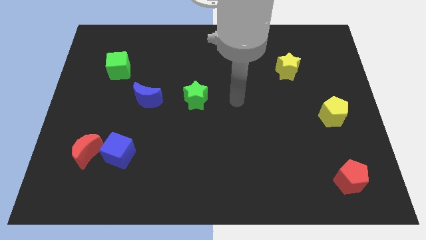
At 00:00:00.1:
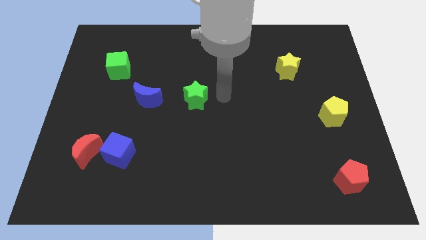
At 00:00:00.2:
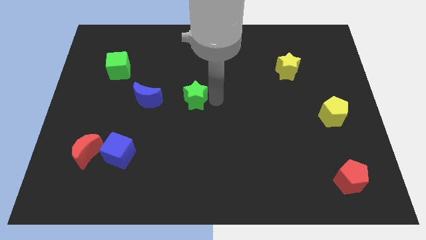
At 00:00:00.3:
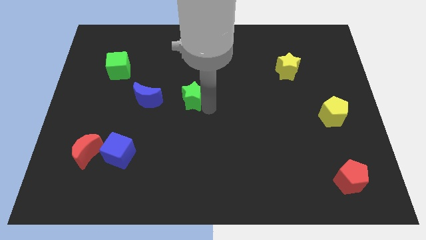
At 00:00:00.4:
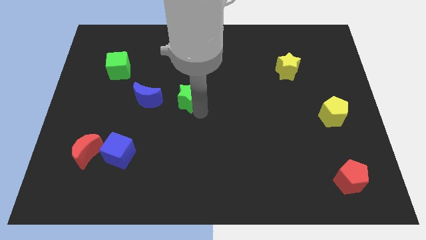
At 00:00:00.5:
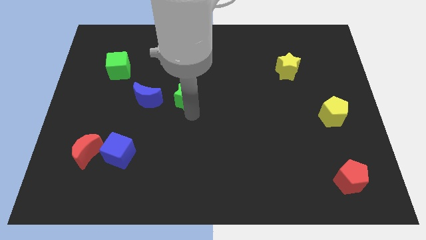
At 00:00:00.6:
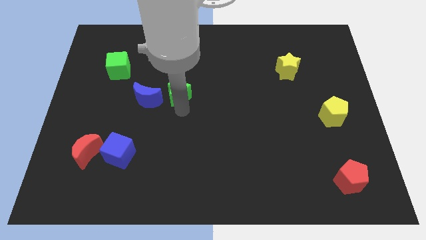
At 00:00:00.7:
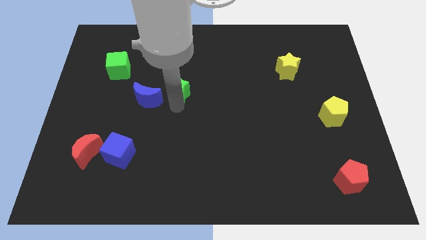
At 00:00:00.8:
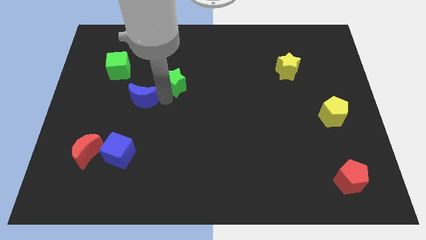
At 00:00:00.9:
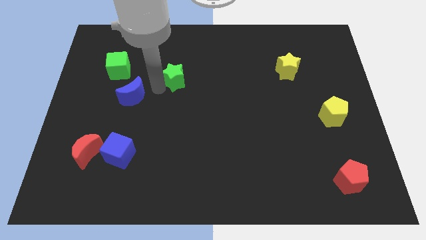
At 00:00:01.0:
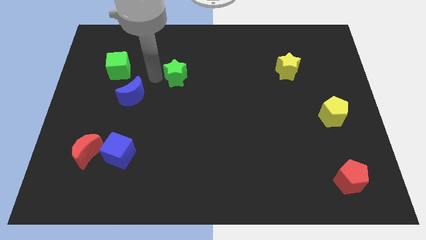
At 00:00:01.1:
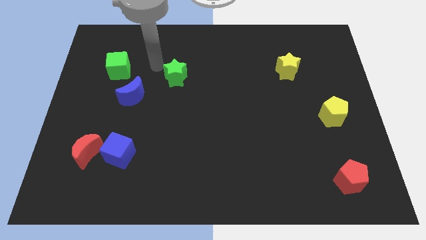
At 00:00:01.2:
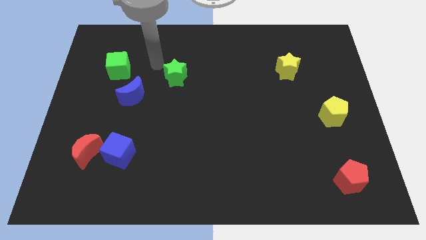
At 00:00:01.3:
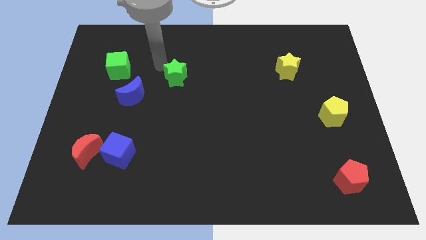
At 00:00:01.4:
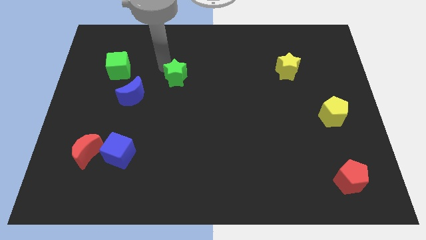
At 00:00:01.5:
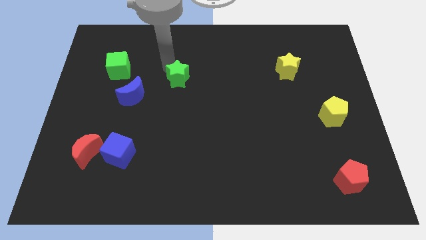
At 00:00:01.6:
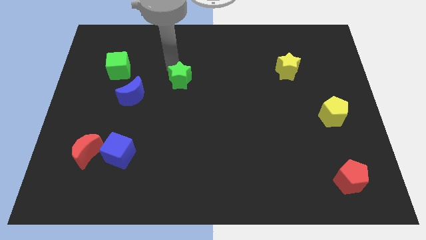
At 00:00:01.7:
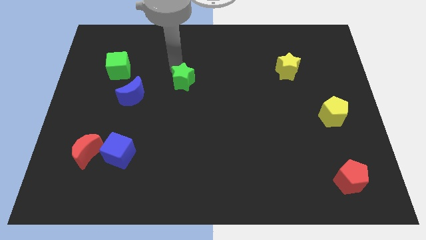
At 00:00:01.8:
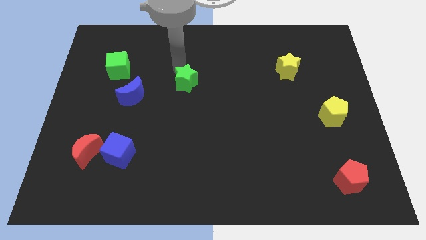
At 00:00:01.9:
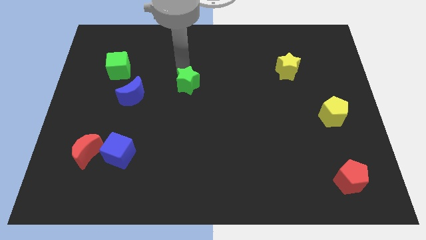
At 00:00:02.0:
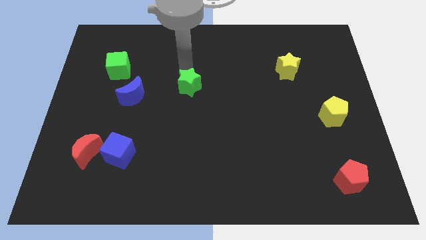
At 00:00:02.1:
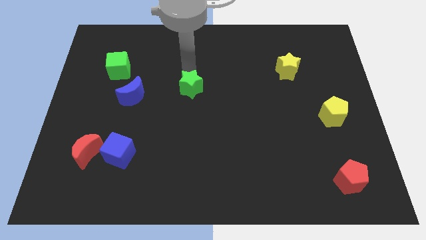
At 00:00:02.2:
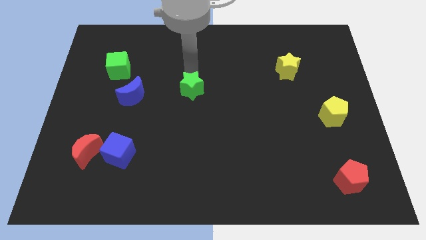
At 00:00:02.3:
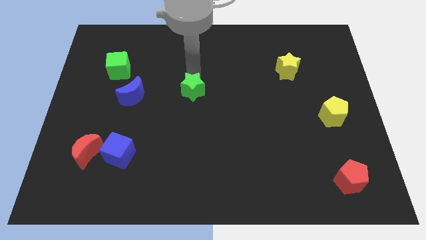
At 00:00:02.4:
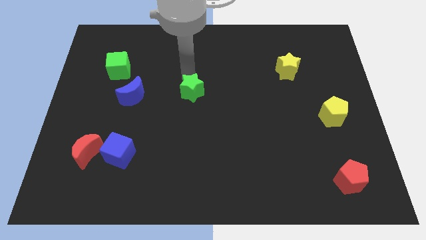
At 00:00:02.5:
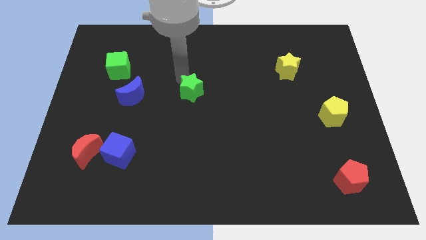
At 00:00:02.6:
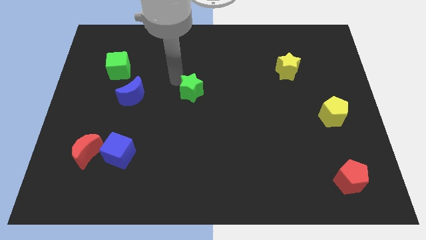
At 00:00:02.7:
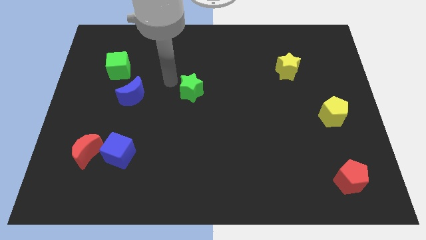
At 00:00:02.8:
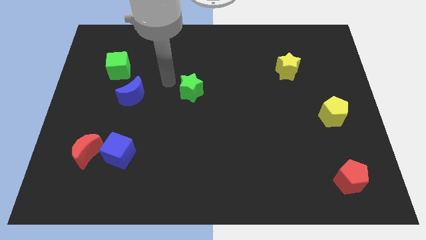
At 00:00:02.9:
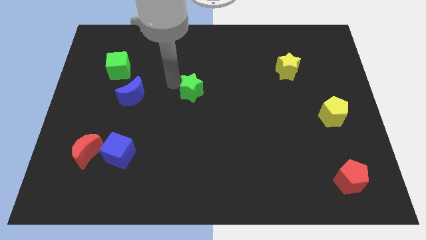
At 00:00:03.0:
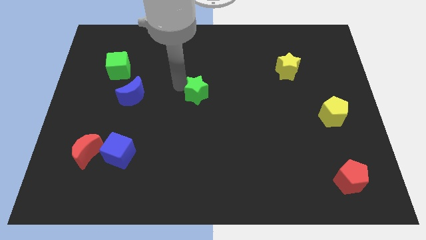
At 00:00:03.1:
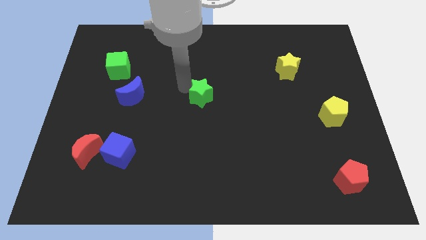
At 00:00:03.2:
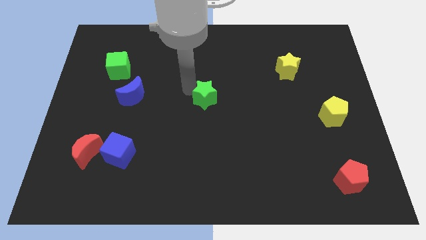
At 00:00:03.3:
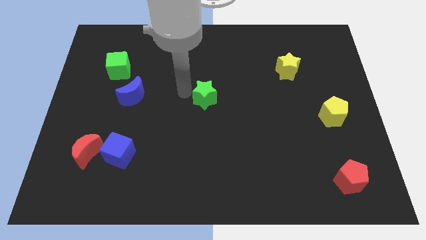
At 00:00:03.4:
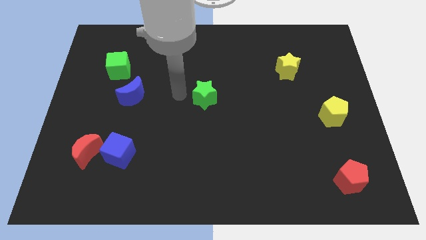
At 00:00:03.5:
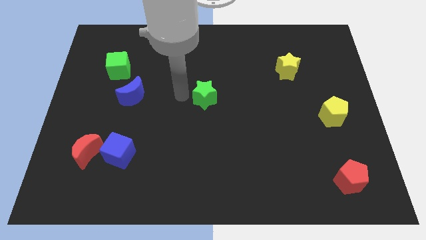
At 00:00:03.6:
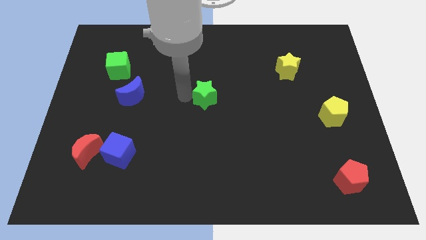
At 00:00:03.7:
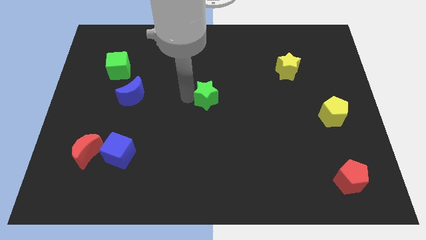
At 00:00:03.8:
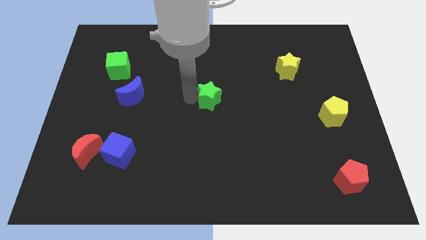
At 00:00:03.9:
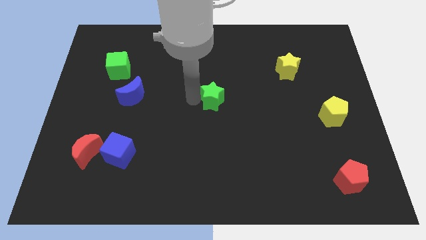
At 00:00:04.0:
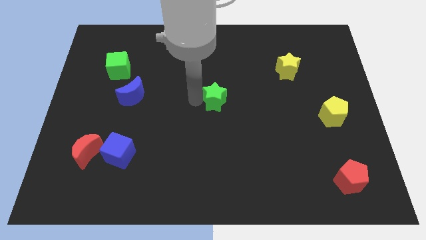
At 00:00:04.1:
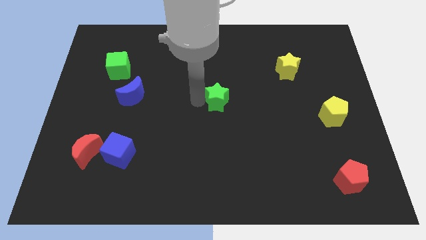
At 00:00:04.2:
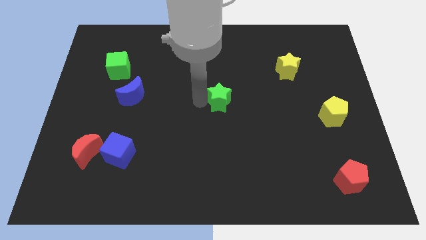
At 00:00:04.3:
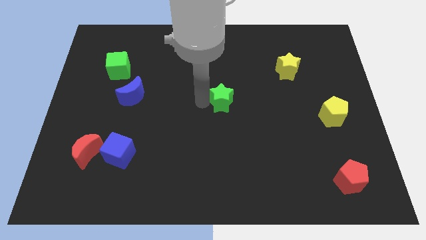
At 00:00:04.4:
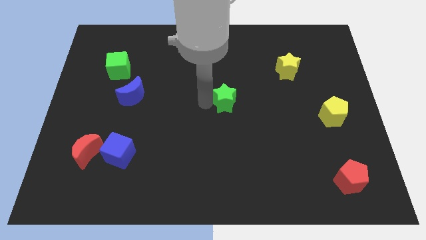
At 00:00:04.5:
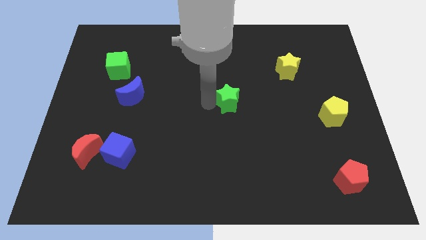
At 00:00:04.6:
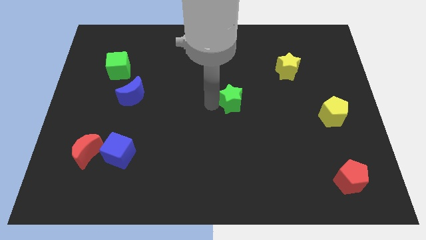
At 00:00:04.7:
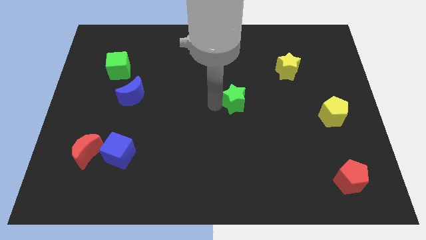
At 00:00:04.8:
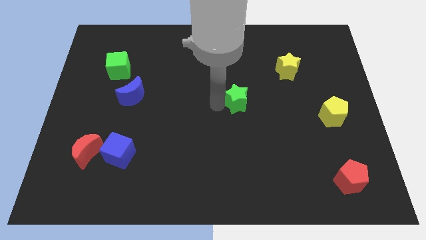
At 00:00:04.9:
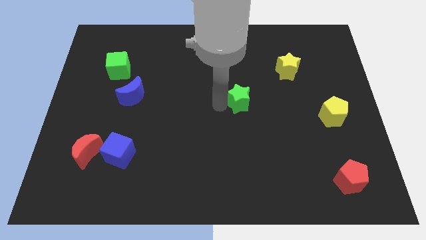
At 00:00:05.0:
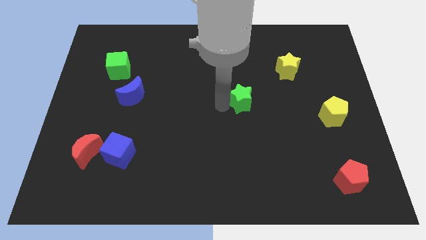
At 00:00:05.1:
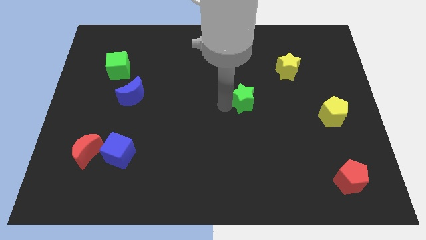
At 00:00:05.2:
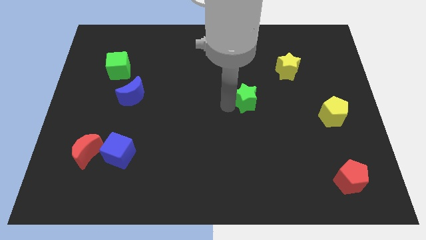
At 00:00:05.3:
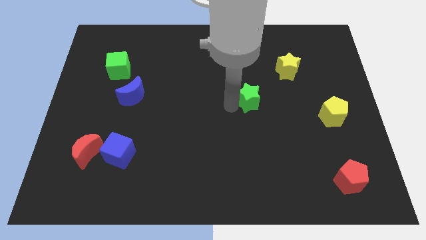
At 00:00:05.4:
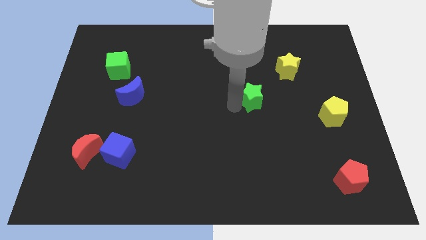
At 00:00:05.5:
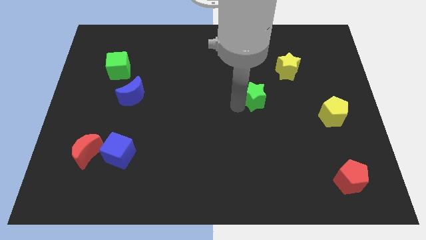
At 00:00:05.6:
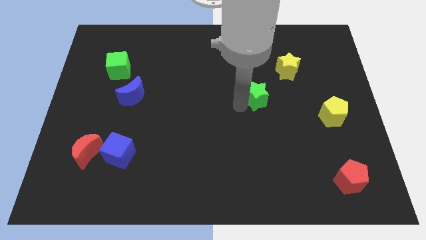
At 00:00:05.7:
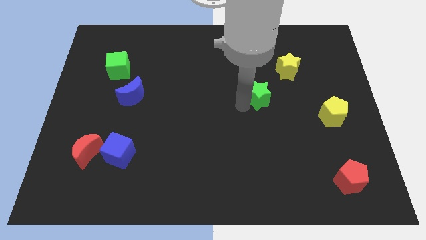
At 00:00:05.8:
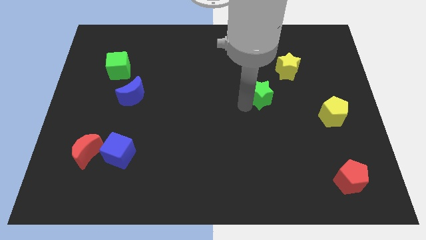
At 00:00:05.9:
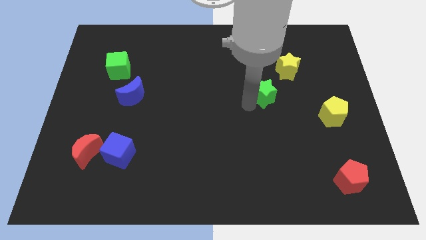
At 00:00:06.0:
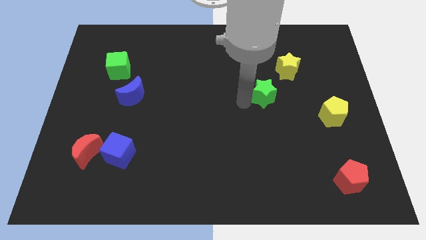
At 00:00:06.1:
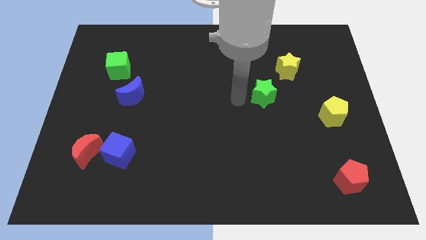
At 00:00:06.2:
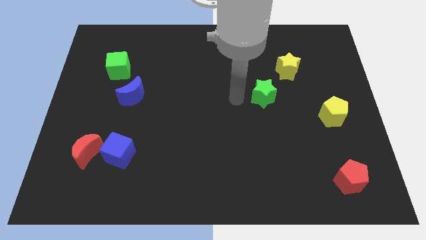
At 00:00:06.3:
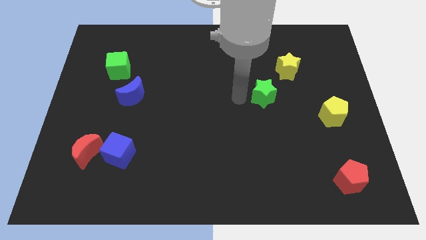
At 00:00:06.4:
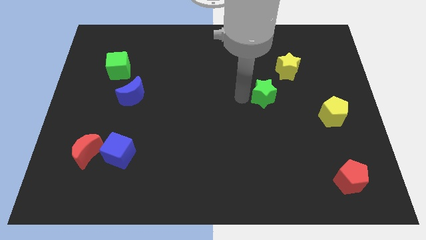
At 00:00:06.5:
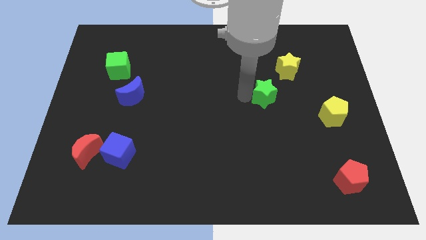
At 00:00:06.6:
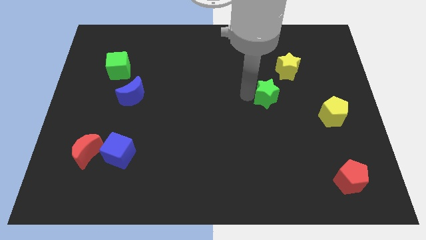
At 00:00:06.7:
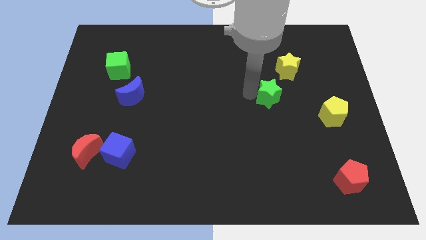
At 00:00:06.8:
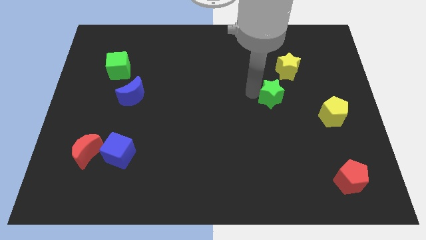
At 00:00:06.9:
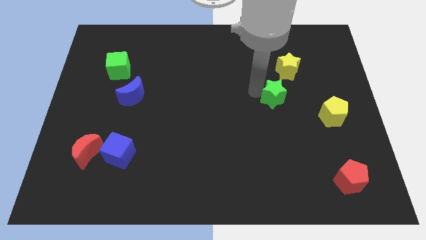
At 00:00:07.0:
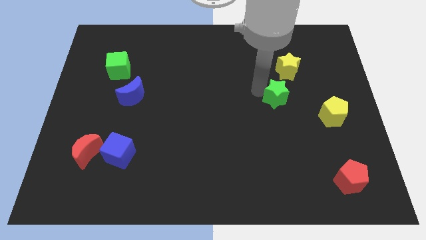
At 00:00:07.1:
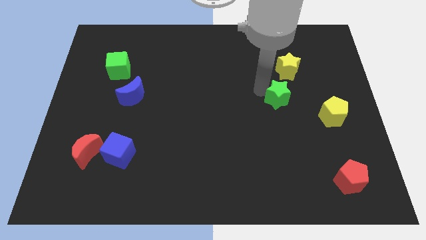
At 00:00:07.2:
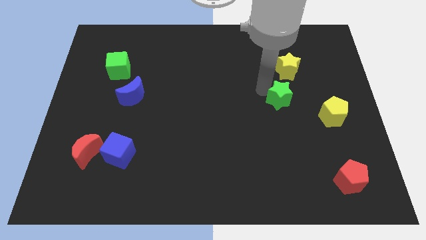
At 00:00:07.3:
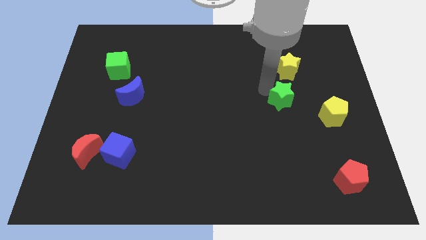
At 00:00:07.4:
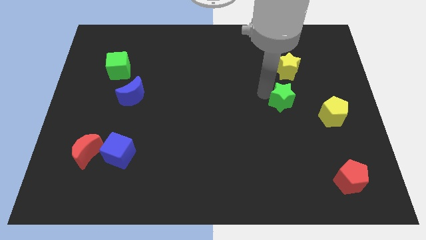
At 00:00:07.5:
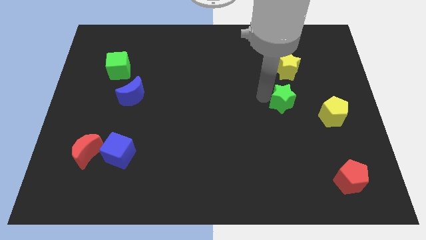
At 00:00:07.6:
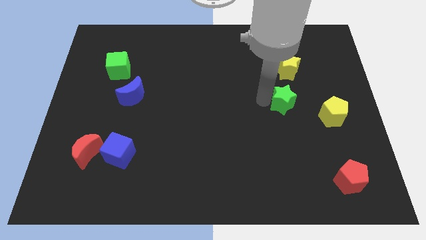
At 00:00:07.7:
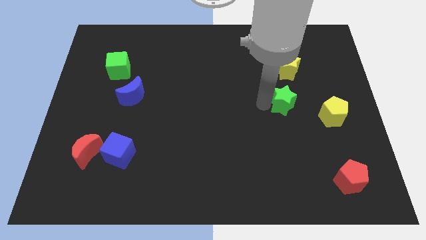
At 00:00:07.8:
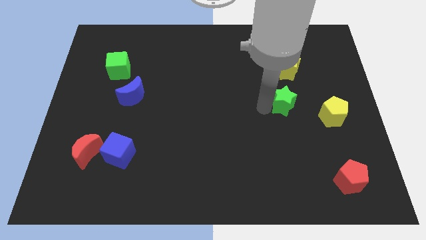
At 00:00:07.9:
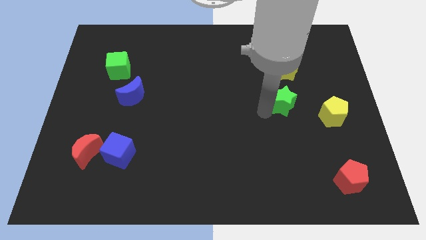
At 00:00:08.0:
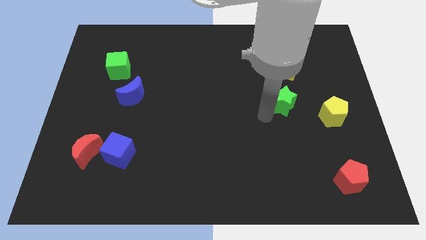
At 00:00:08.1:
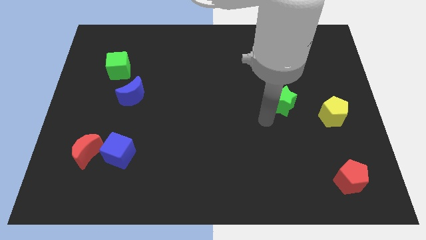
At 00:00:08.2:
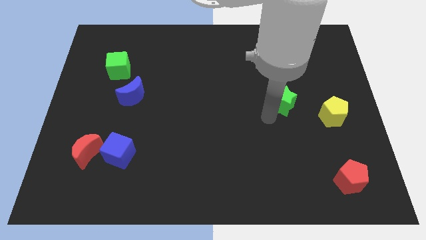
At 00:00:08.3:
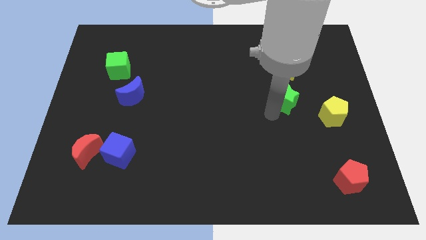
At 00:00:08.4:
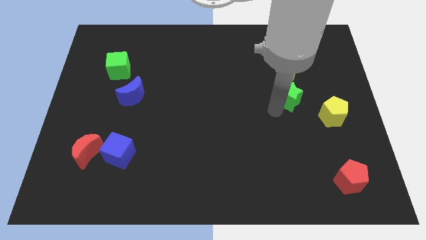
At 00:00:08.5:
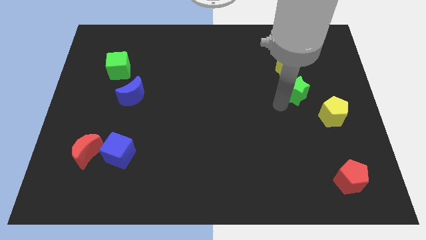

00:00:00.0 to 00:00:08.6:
slide the green star to the bottom right of the yellow star
